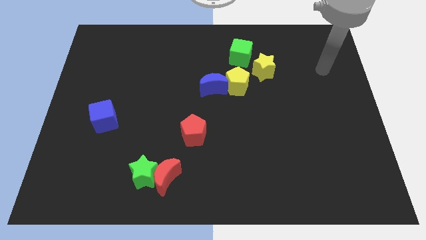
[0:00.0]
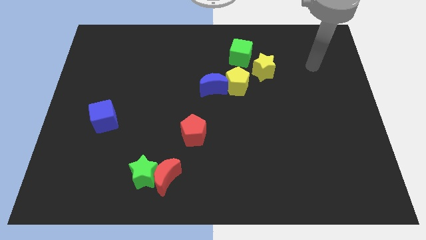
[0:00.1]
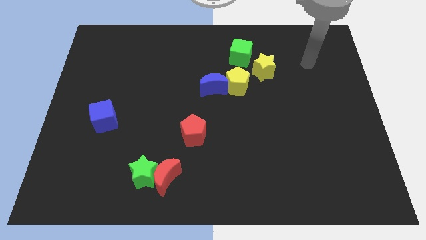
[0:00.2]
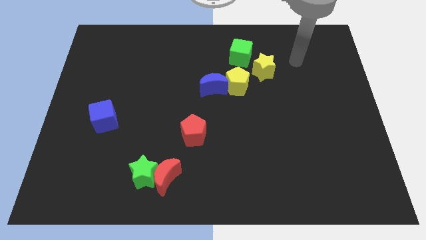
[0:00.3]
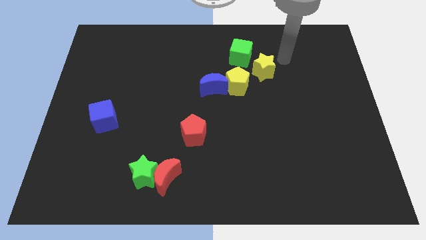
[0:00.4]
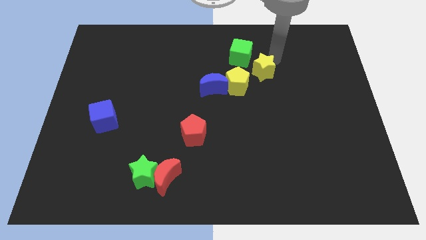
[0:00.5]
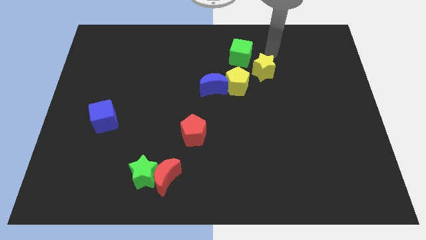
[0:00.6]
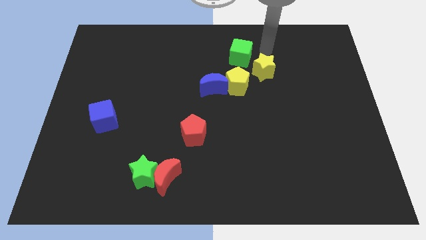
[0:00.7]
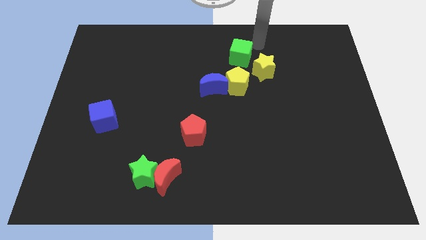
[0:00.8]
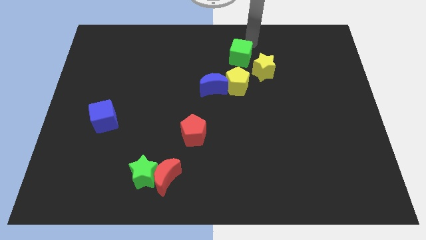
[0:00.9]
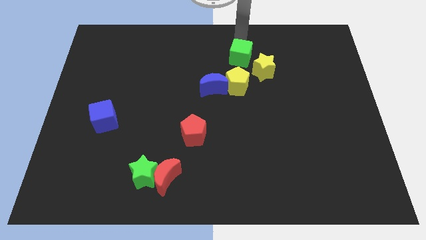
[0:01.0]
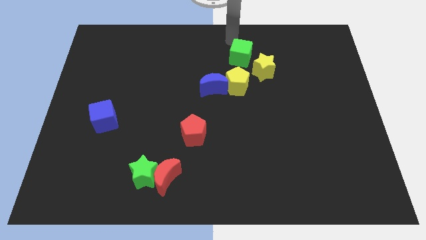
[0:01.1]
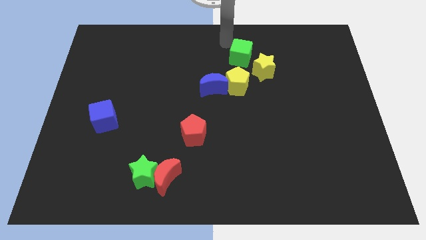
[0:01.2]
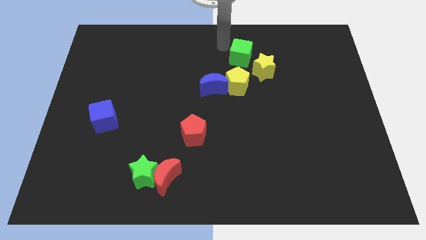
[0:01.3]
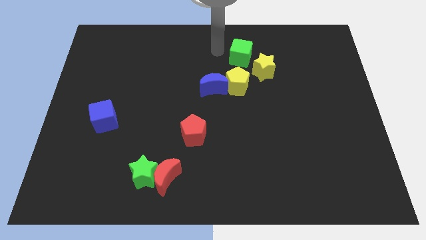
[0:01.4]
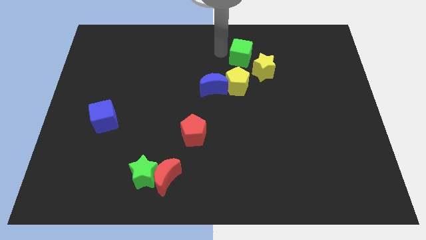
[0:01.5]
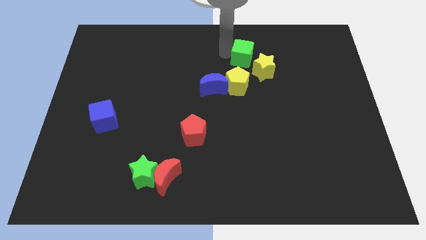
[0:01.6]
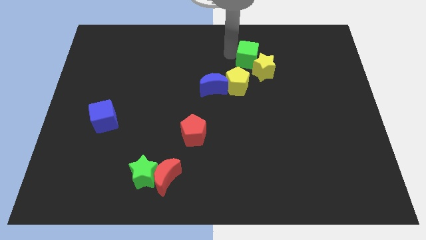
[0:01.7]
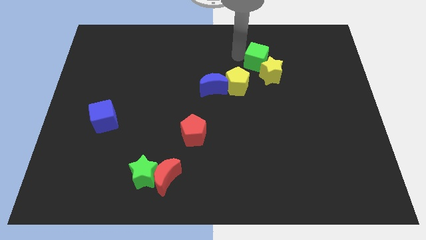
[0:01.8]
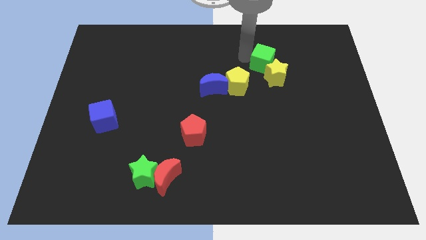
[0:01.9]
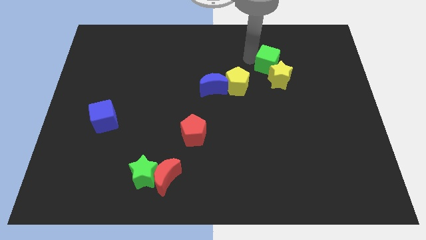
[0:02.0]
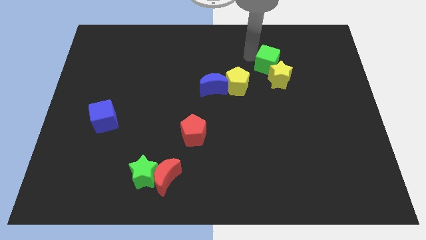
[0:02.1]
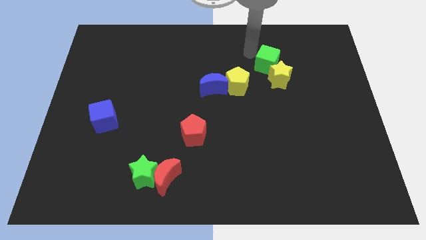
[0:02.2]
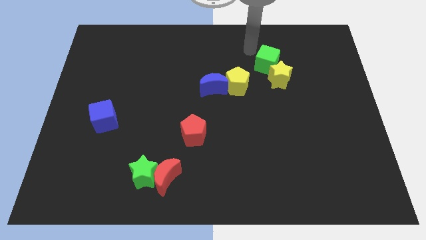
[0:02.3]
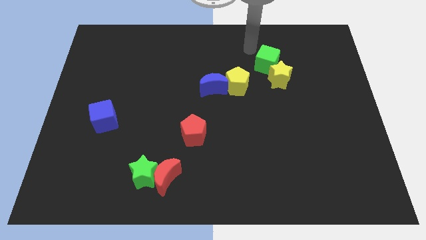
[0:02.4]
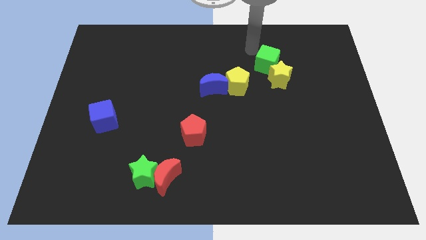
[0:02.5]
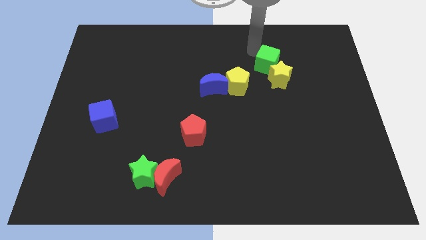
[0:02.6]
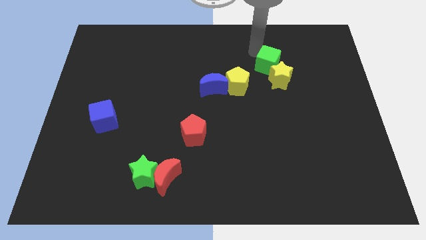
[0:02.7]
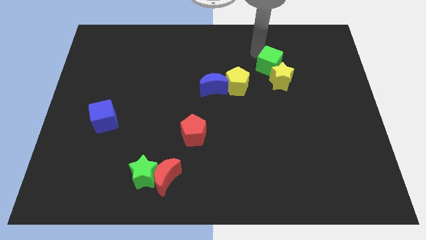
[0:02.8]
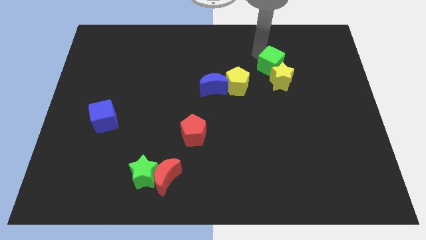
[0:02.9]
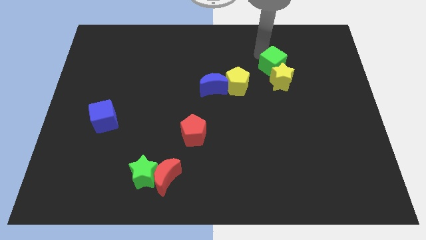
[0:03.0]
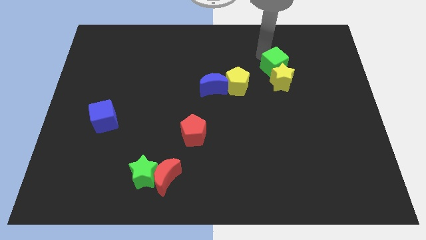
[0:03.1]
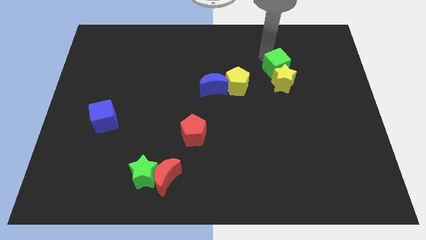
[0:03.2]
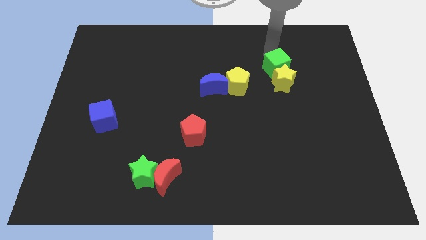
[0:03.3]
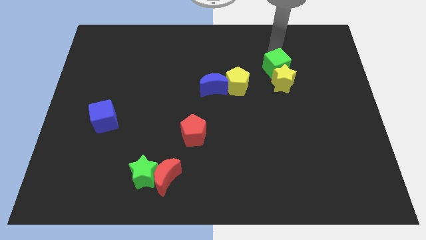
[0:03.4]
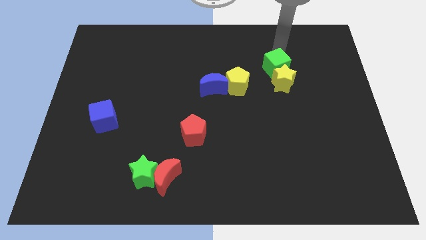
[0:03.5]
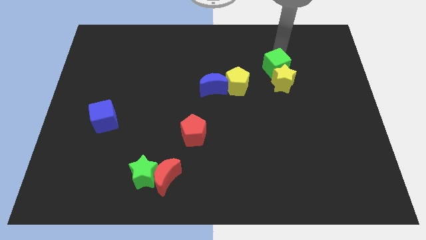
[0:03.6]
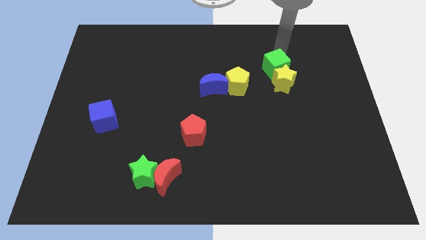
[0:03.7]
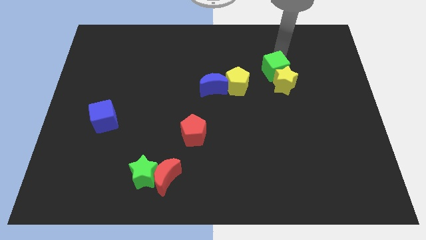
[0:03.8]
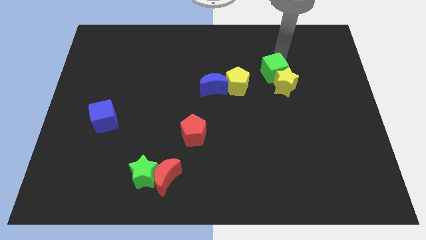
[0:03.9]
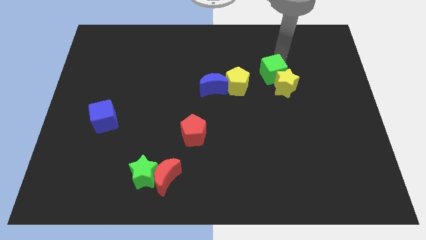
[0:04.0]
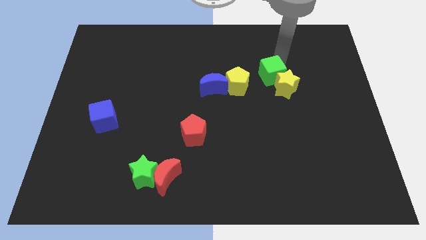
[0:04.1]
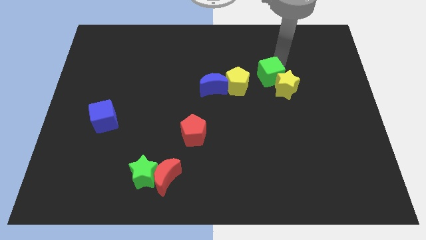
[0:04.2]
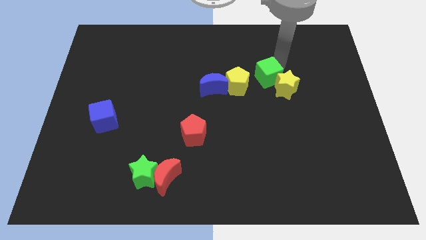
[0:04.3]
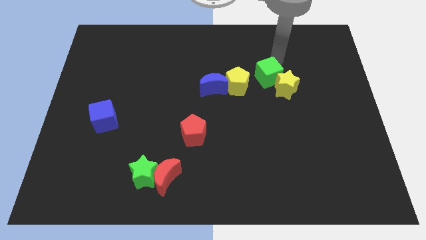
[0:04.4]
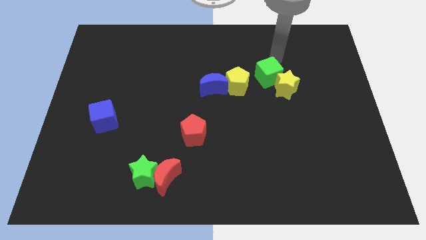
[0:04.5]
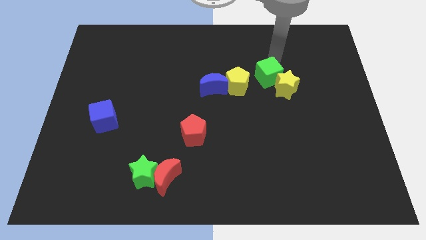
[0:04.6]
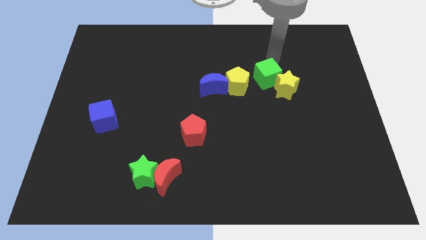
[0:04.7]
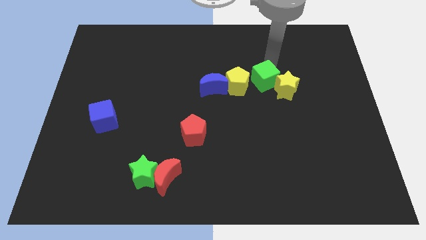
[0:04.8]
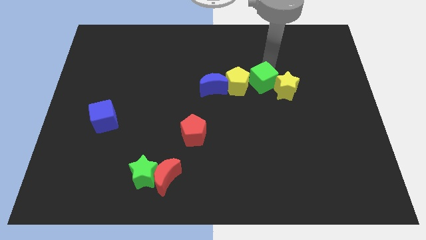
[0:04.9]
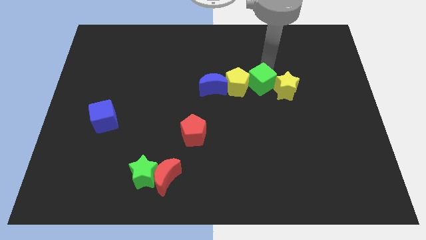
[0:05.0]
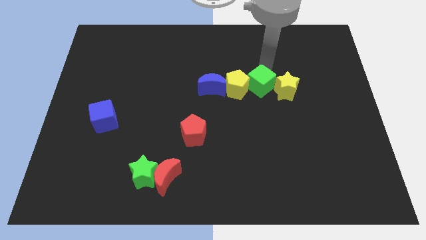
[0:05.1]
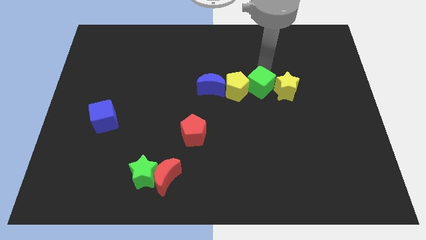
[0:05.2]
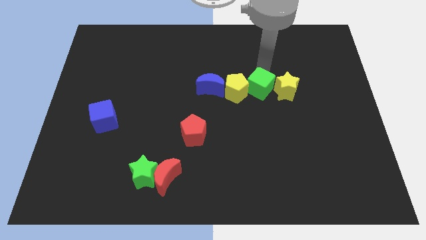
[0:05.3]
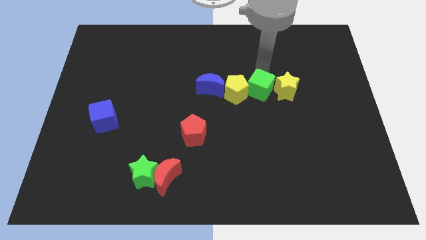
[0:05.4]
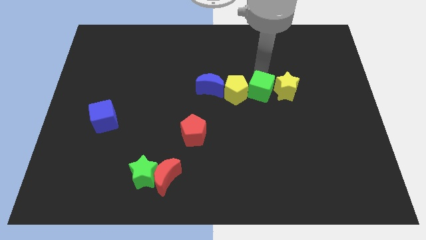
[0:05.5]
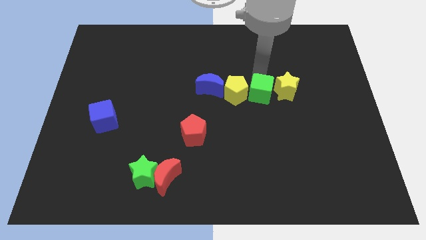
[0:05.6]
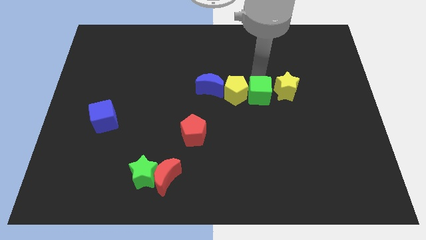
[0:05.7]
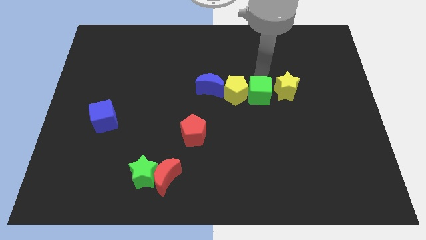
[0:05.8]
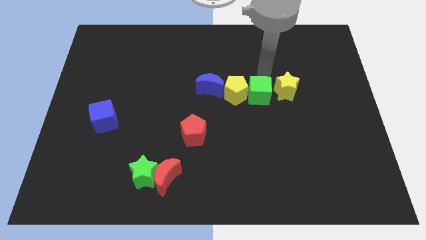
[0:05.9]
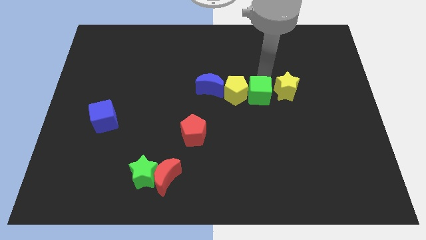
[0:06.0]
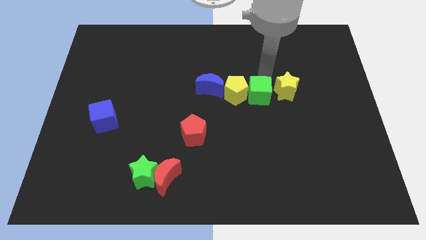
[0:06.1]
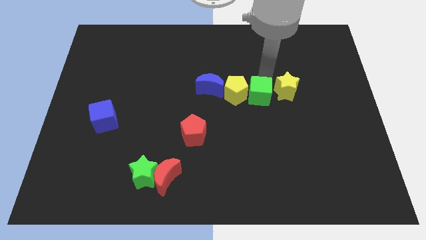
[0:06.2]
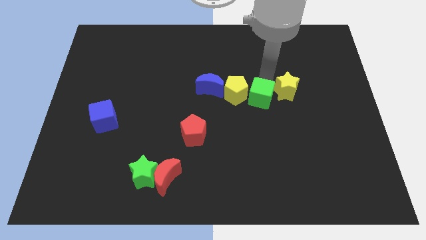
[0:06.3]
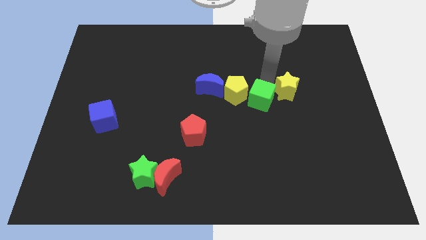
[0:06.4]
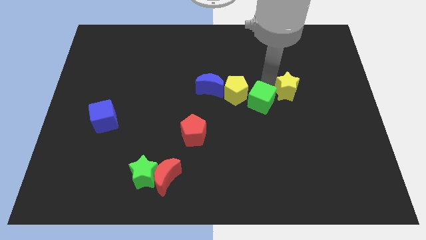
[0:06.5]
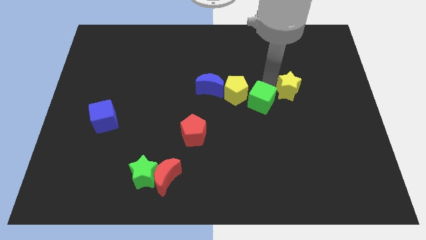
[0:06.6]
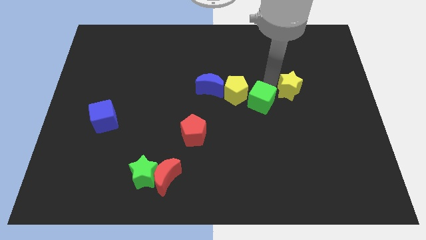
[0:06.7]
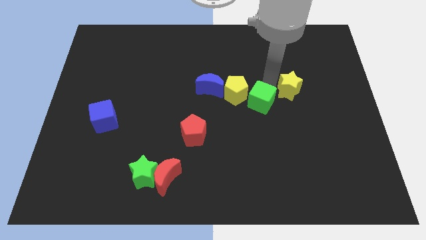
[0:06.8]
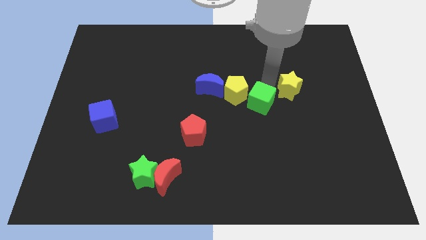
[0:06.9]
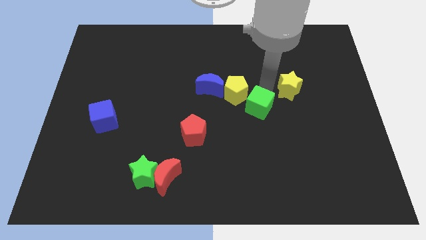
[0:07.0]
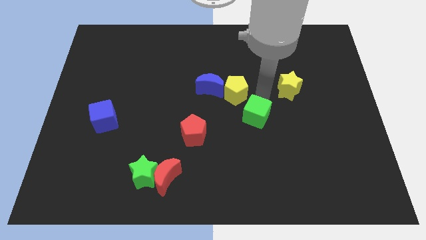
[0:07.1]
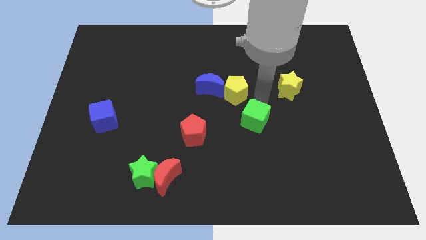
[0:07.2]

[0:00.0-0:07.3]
move the green cube down

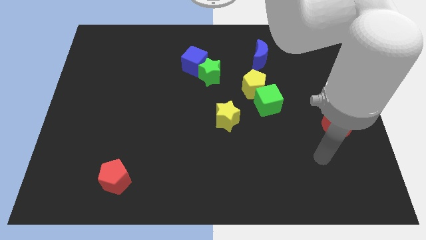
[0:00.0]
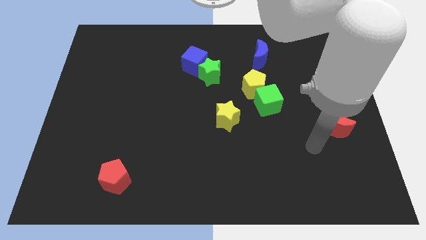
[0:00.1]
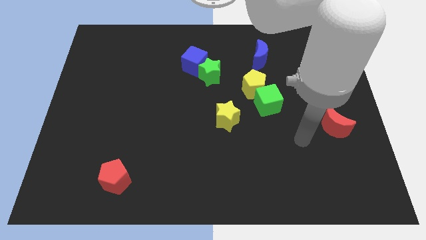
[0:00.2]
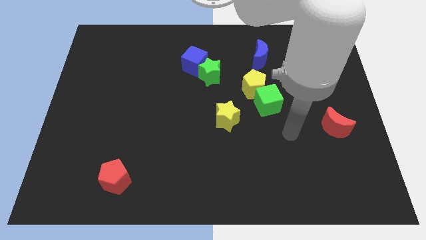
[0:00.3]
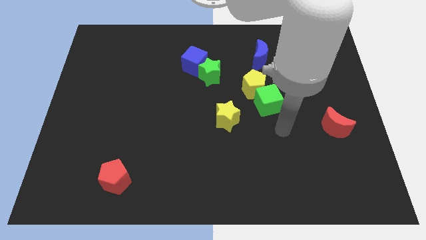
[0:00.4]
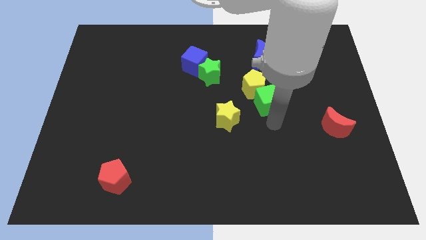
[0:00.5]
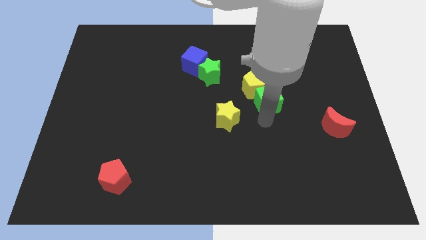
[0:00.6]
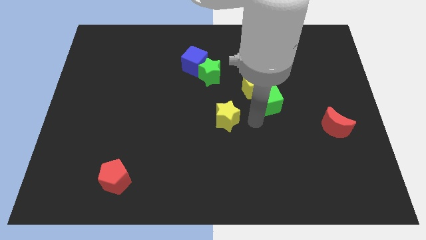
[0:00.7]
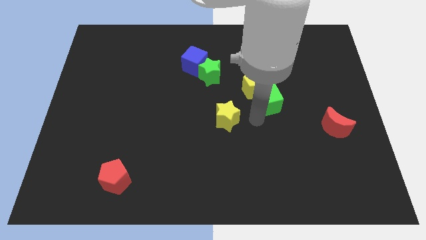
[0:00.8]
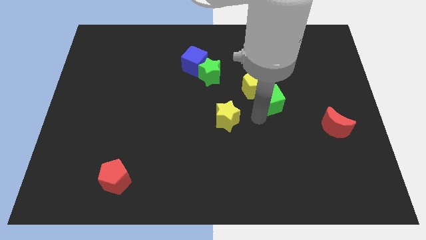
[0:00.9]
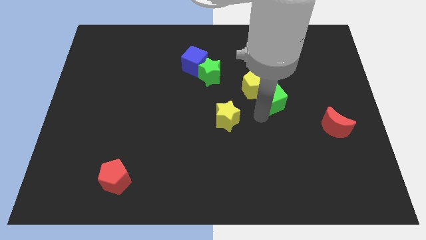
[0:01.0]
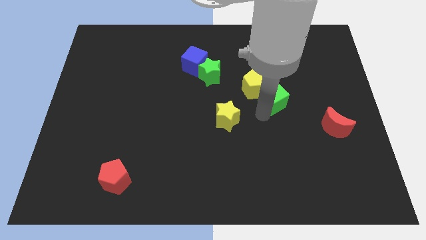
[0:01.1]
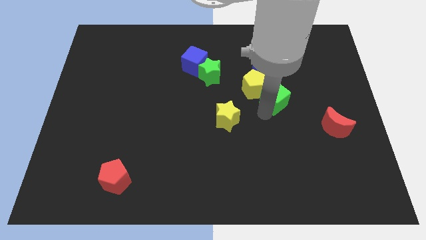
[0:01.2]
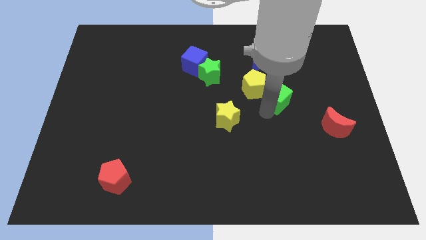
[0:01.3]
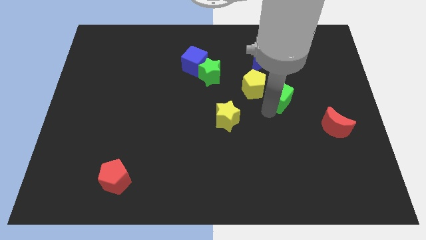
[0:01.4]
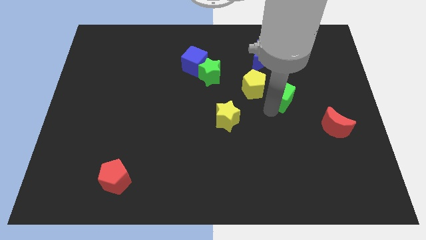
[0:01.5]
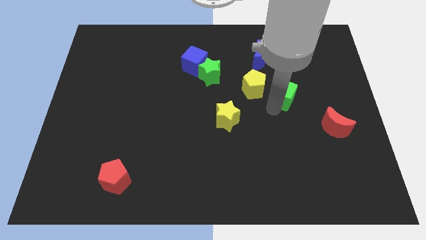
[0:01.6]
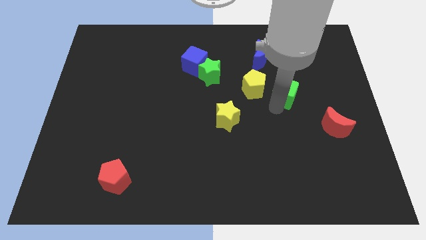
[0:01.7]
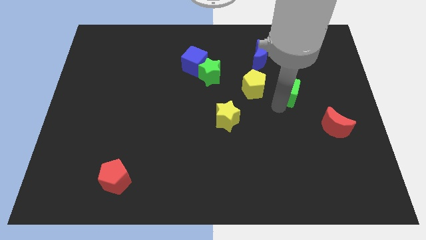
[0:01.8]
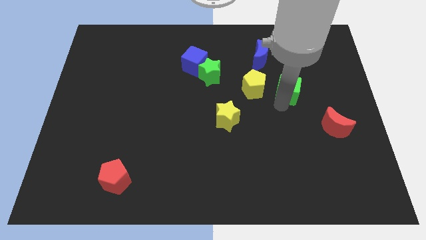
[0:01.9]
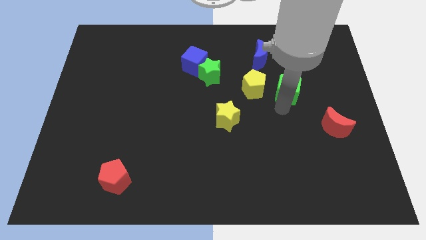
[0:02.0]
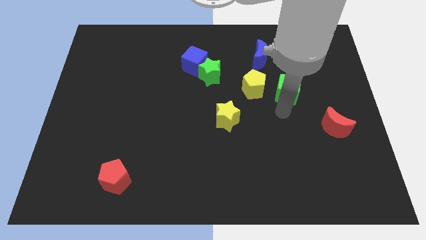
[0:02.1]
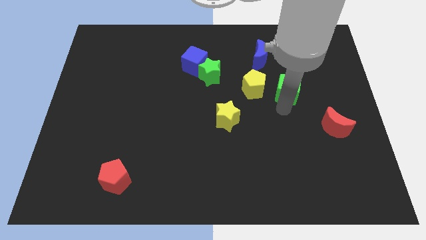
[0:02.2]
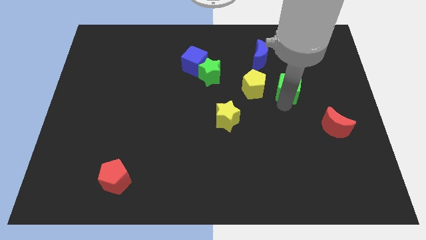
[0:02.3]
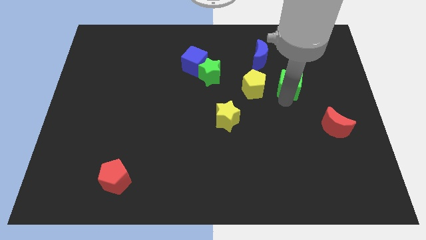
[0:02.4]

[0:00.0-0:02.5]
slide the green cube slightly upwards and then right
